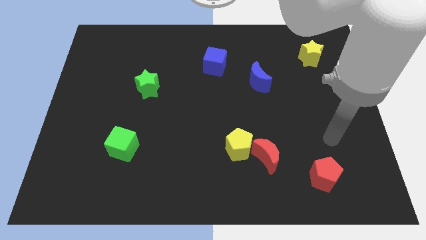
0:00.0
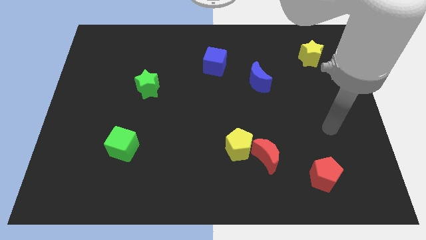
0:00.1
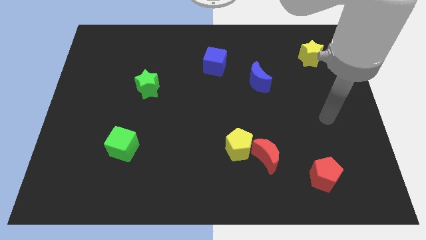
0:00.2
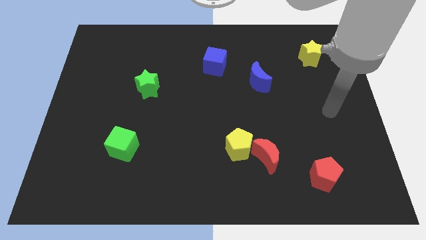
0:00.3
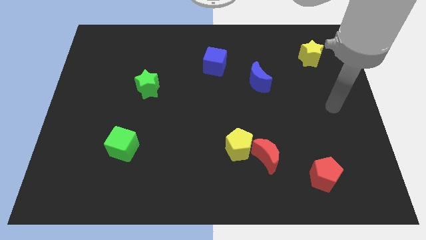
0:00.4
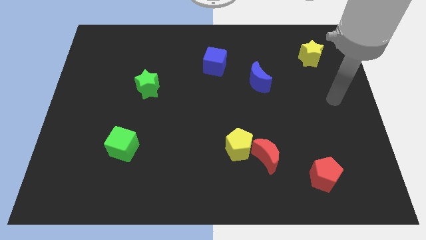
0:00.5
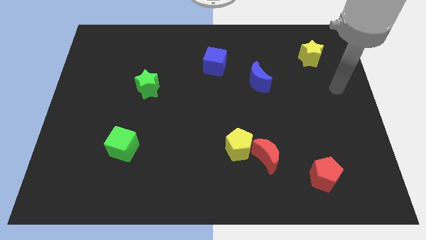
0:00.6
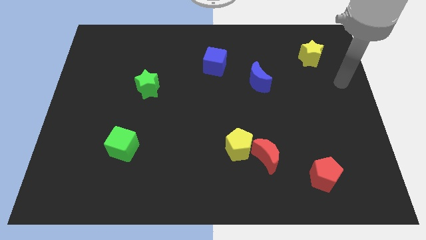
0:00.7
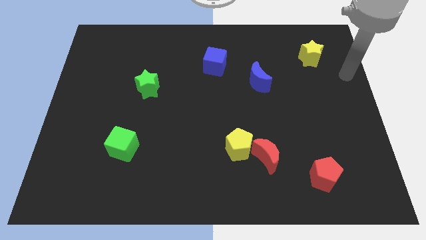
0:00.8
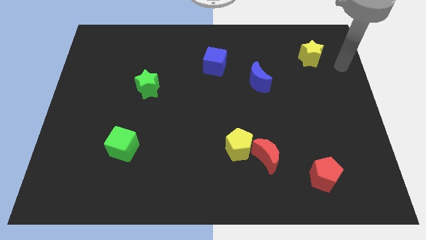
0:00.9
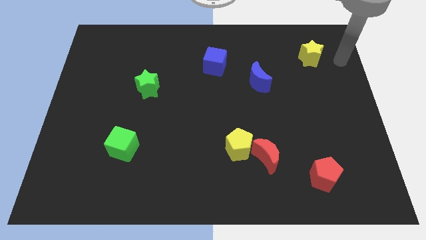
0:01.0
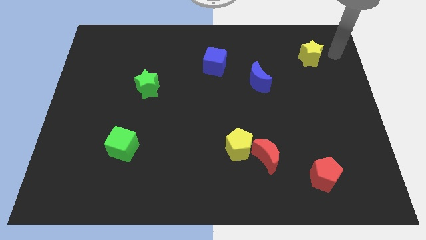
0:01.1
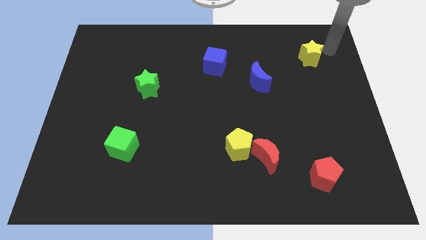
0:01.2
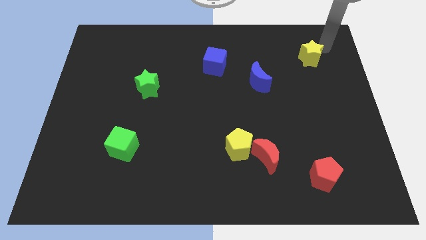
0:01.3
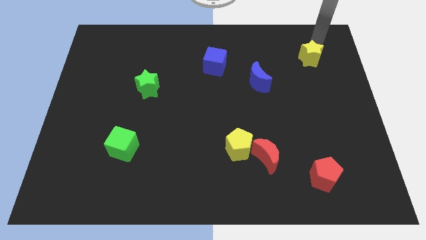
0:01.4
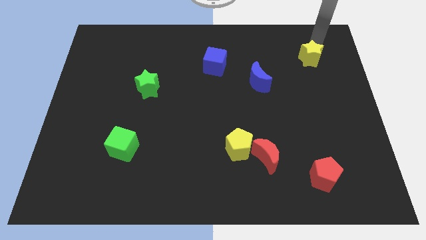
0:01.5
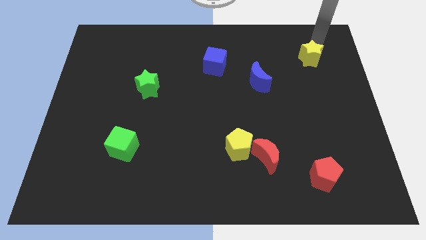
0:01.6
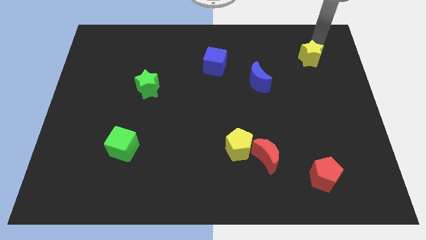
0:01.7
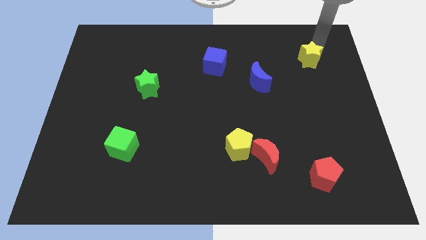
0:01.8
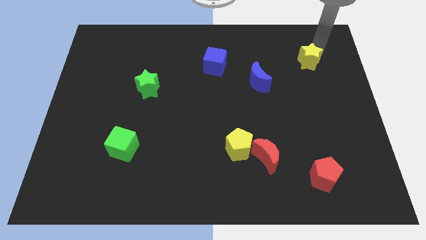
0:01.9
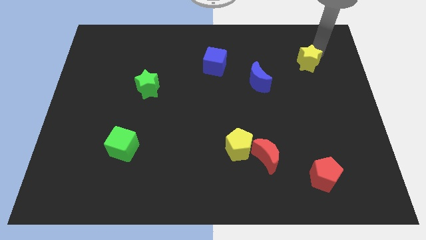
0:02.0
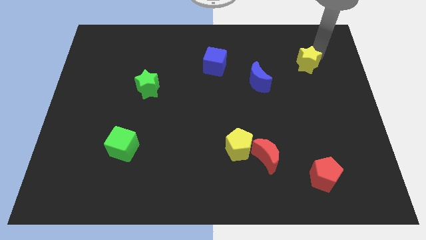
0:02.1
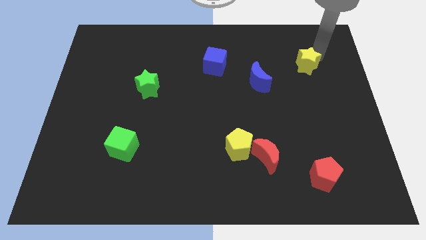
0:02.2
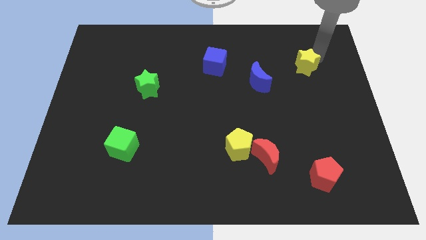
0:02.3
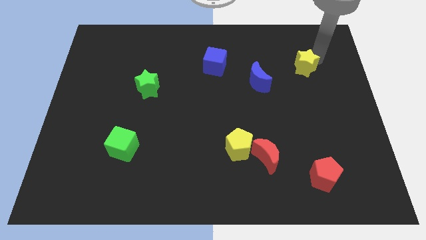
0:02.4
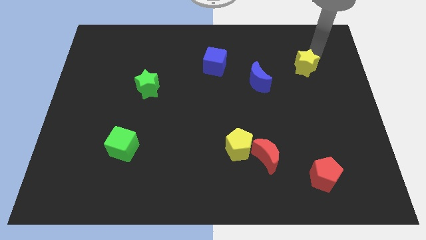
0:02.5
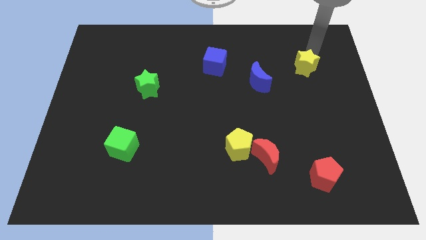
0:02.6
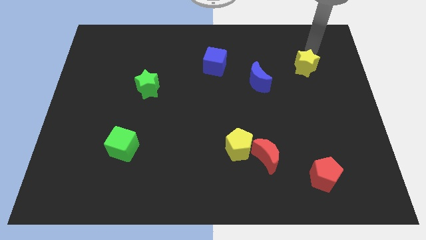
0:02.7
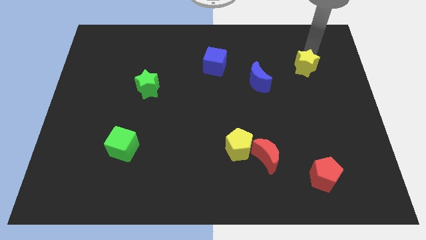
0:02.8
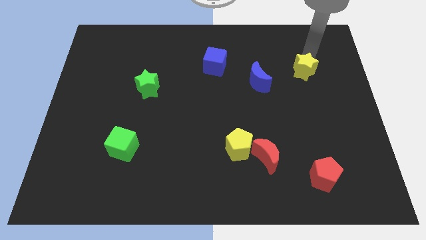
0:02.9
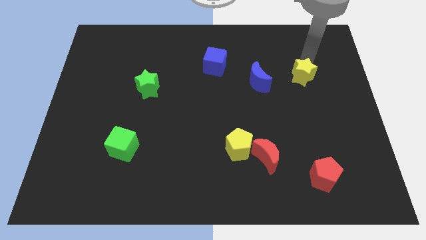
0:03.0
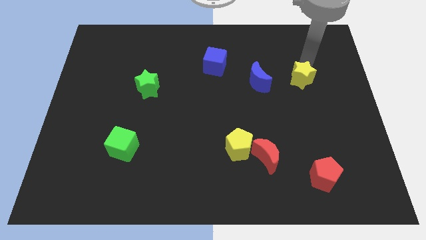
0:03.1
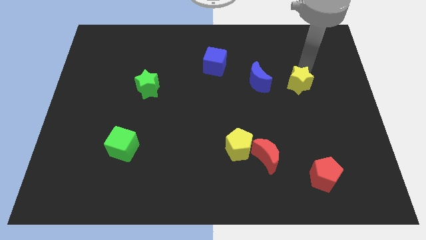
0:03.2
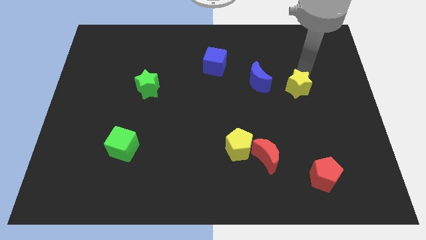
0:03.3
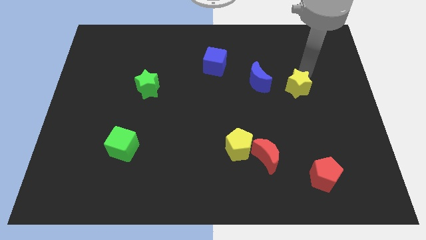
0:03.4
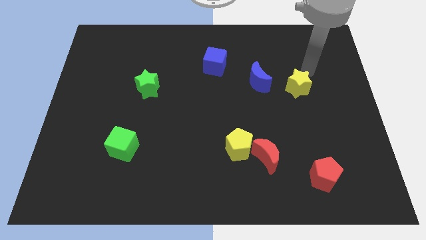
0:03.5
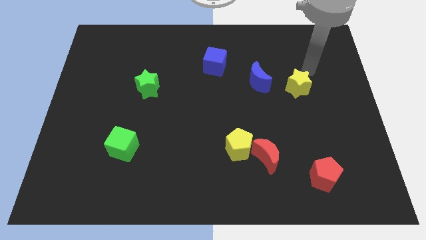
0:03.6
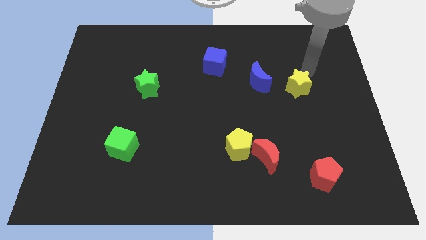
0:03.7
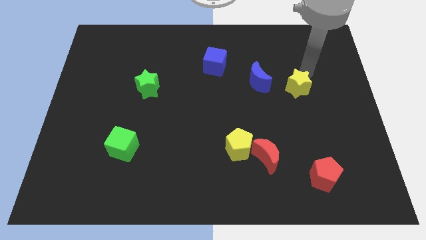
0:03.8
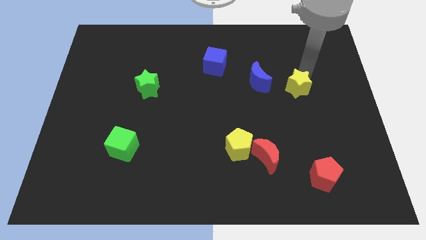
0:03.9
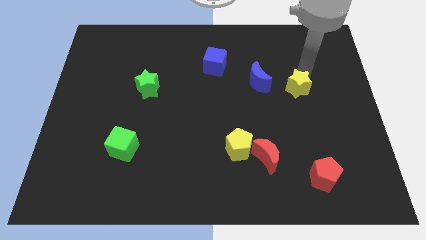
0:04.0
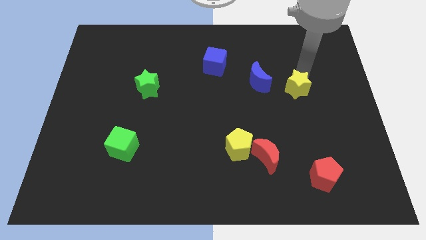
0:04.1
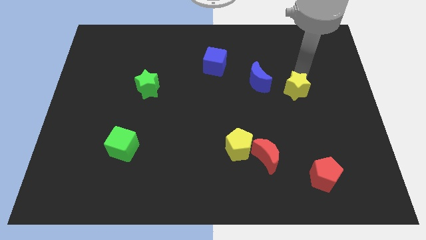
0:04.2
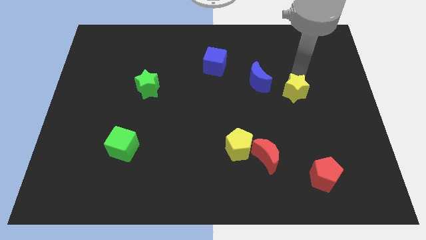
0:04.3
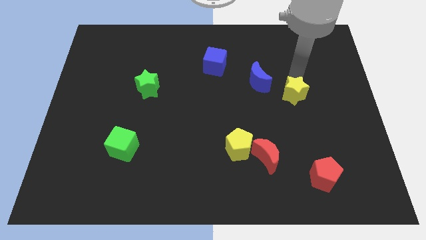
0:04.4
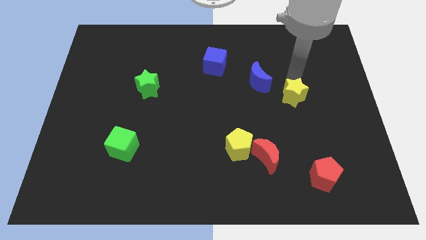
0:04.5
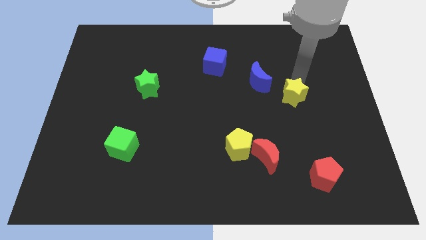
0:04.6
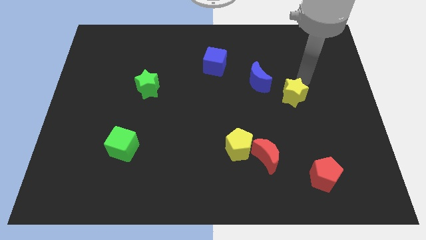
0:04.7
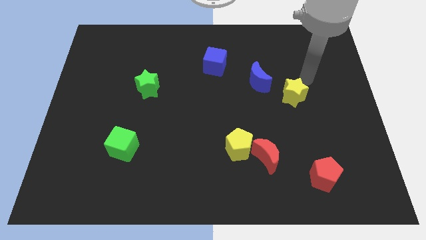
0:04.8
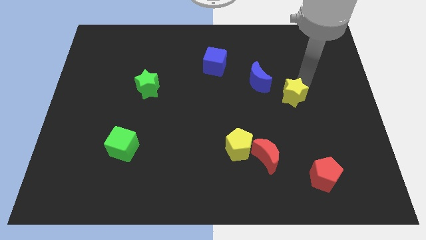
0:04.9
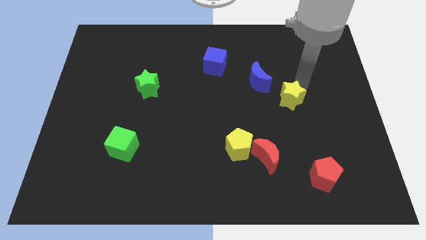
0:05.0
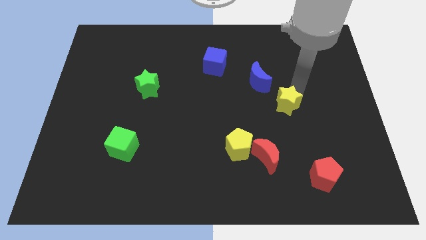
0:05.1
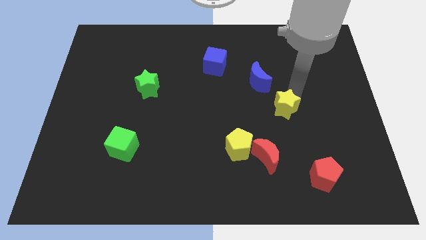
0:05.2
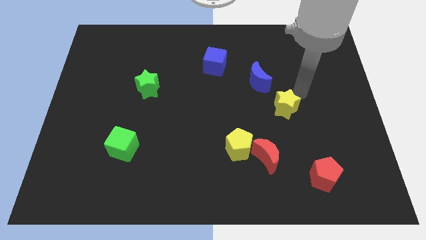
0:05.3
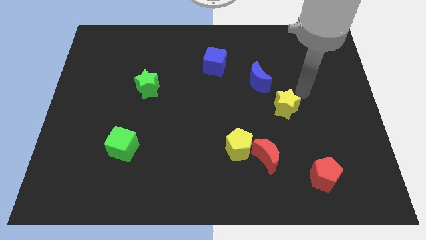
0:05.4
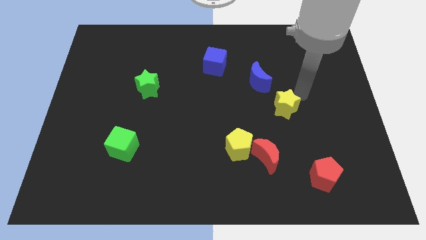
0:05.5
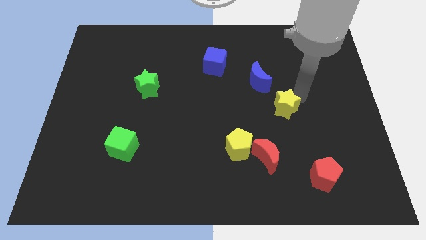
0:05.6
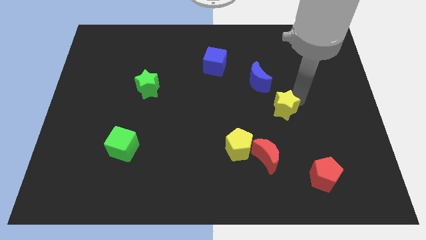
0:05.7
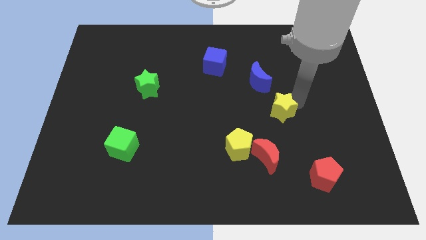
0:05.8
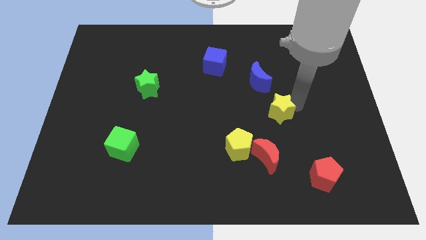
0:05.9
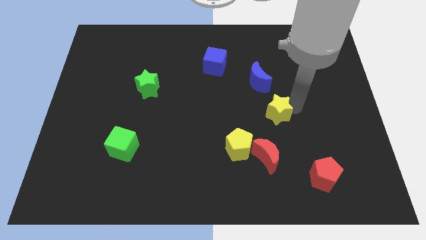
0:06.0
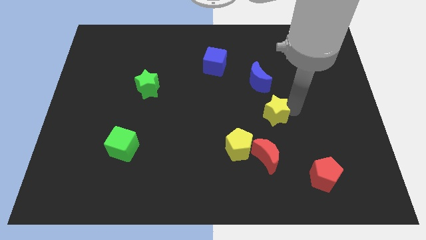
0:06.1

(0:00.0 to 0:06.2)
move the yellow star to the top right side of the yellow pentagon

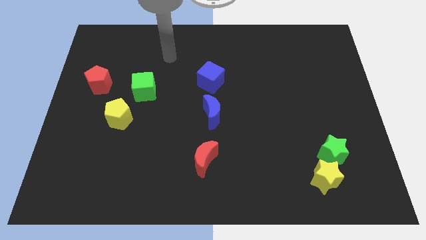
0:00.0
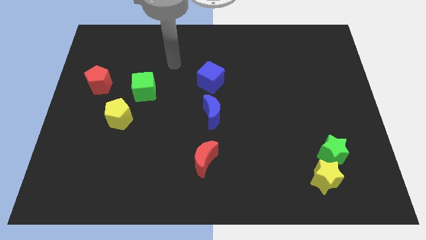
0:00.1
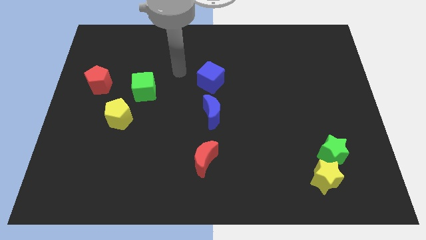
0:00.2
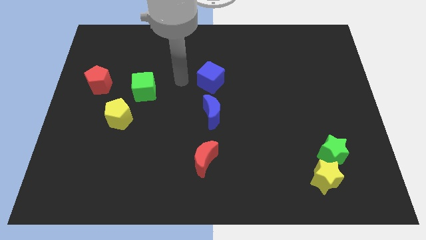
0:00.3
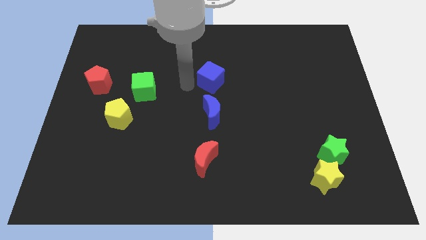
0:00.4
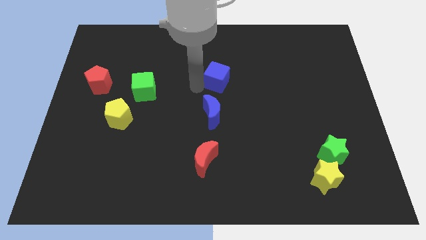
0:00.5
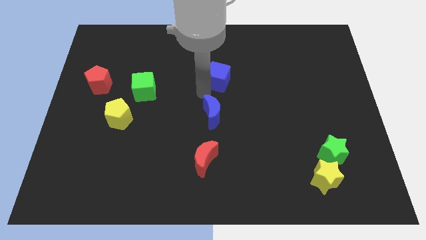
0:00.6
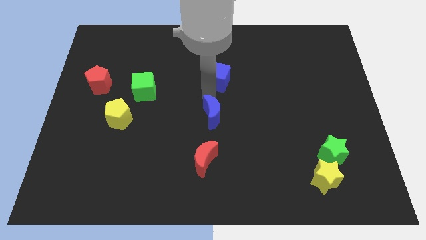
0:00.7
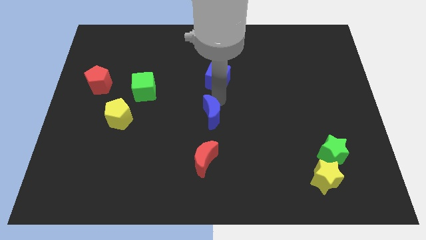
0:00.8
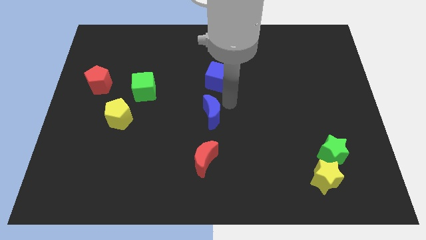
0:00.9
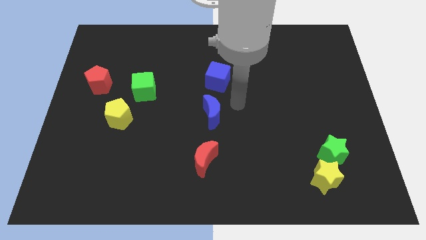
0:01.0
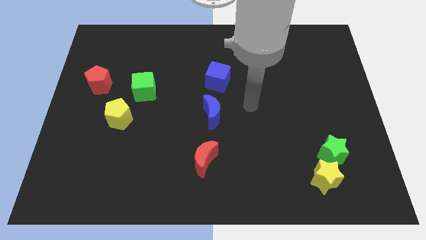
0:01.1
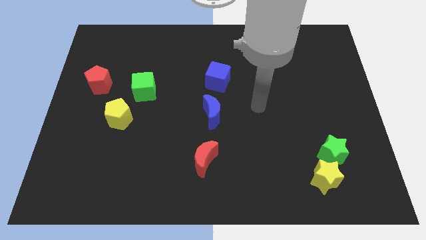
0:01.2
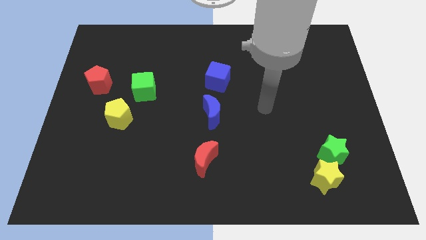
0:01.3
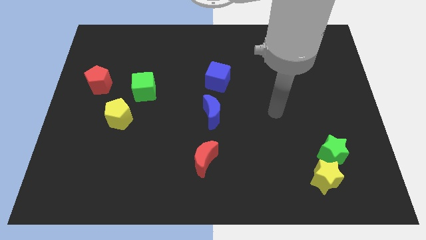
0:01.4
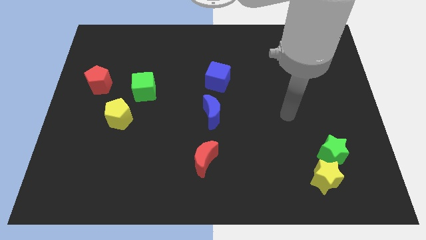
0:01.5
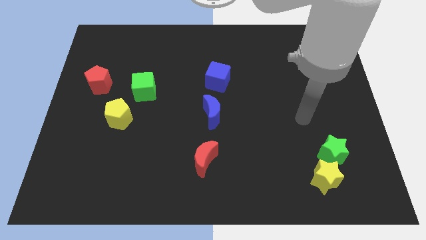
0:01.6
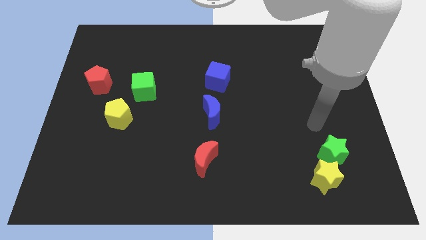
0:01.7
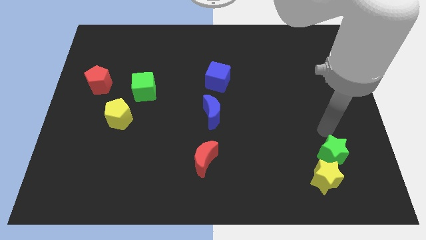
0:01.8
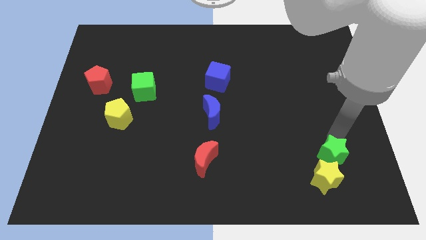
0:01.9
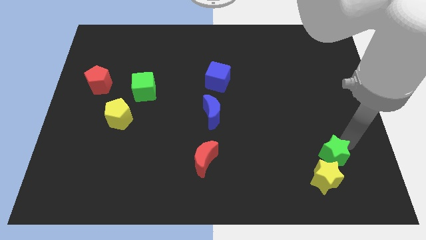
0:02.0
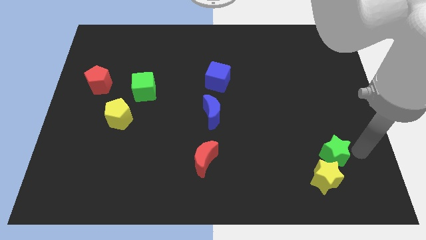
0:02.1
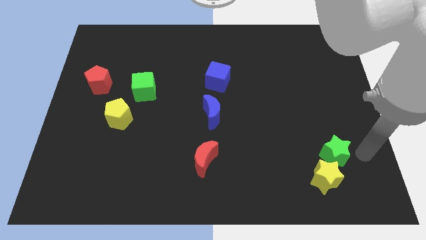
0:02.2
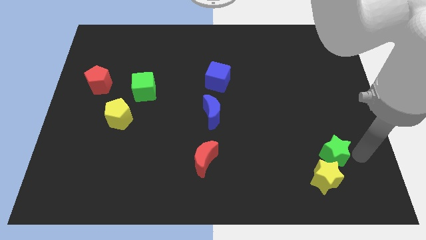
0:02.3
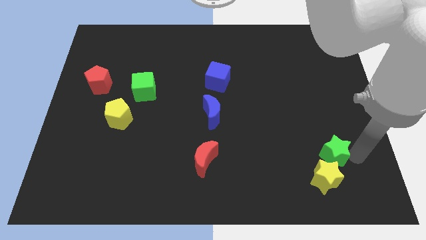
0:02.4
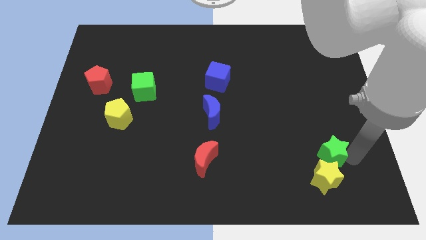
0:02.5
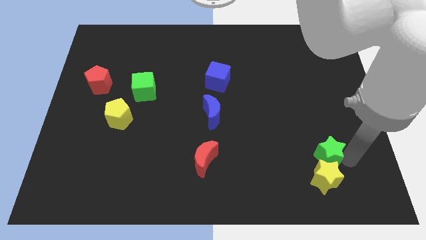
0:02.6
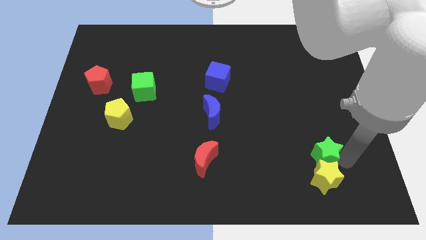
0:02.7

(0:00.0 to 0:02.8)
push the green star diagonally up and to the left of the yellow star
